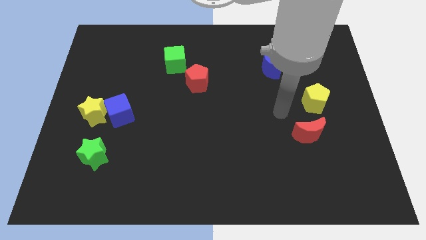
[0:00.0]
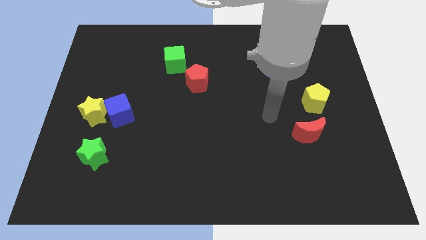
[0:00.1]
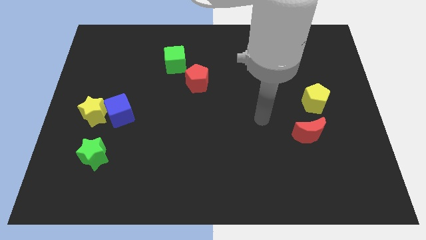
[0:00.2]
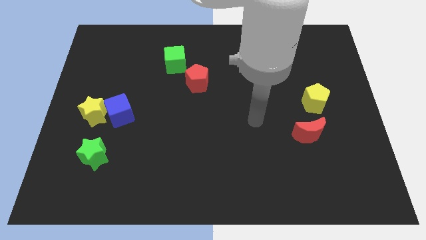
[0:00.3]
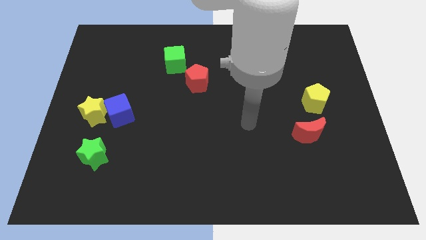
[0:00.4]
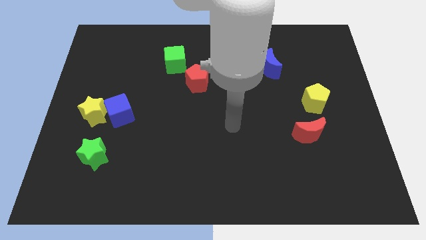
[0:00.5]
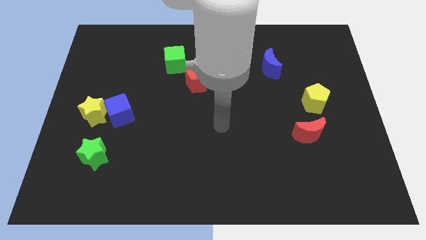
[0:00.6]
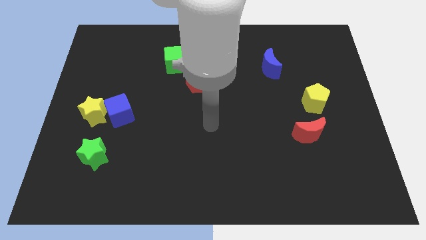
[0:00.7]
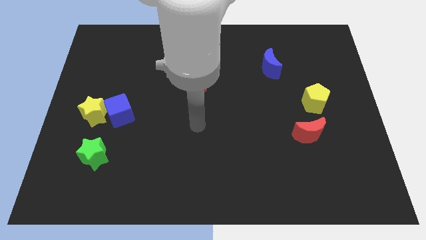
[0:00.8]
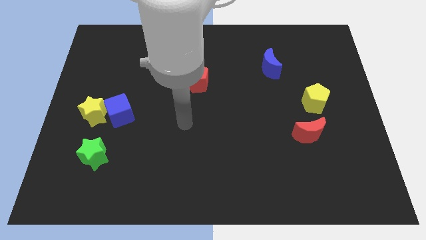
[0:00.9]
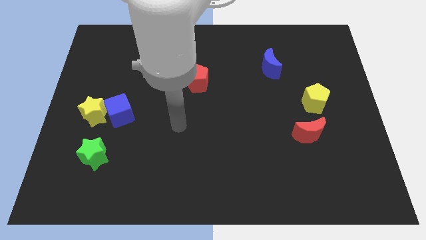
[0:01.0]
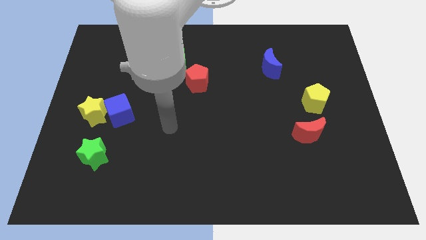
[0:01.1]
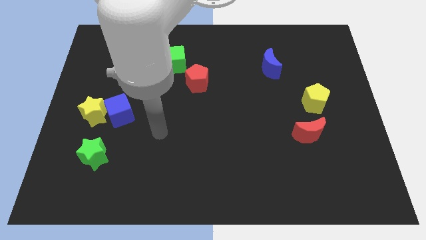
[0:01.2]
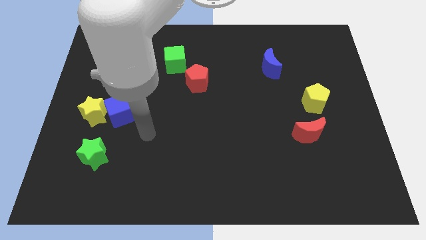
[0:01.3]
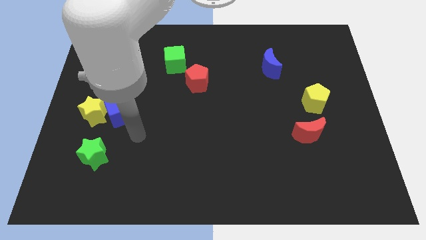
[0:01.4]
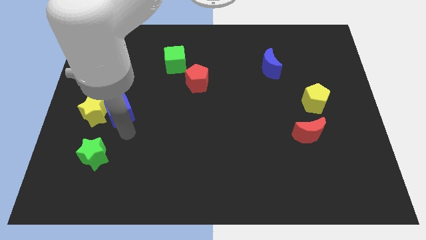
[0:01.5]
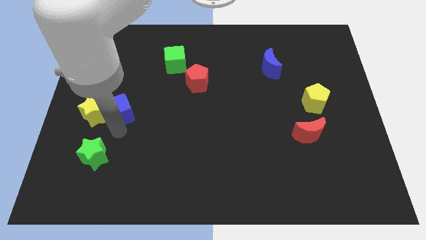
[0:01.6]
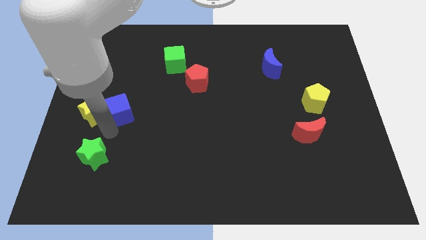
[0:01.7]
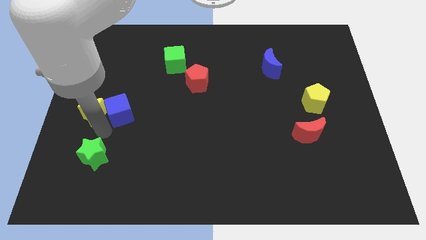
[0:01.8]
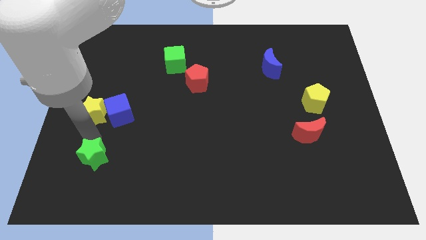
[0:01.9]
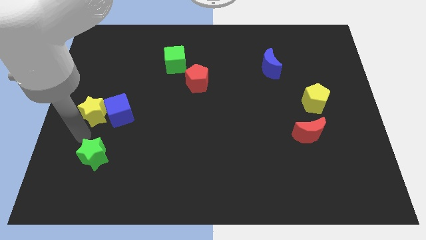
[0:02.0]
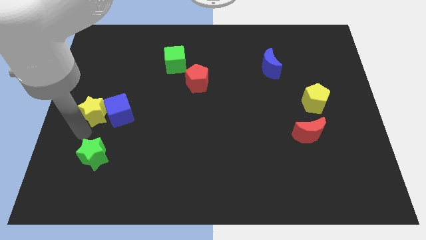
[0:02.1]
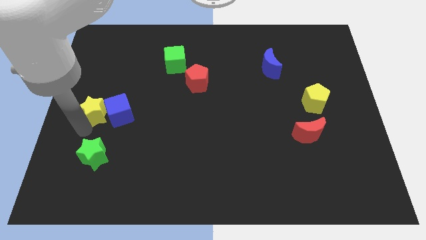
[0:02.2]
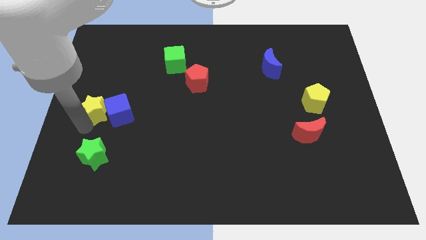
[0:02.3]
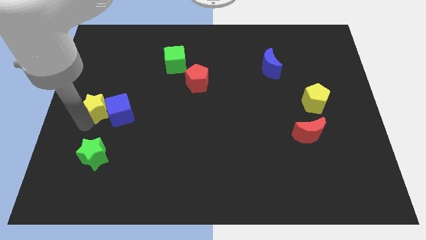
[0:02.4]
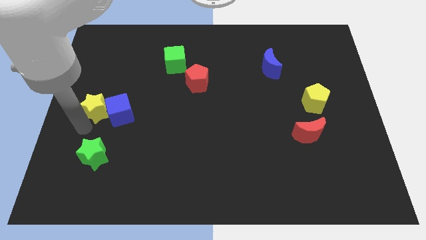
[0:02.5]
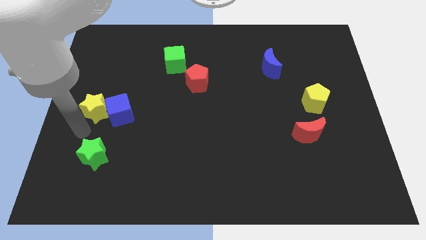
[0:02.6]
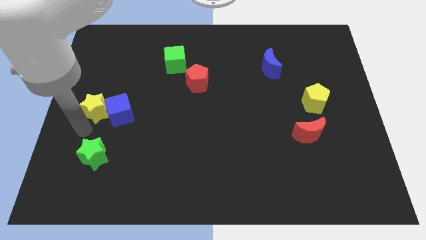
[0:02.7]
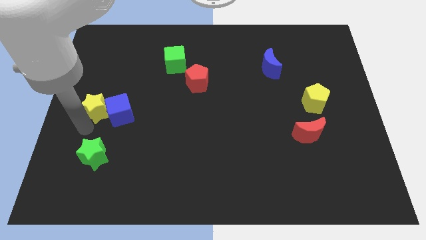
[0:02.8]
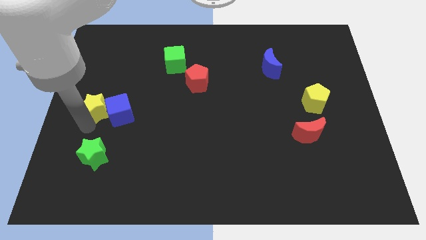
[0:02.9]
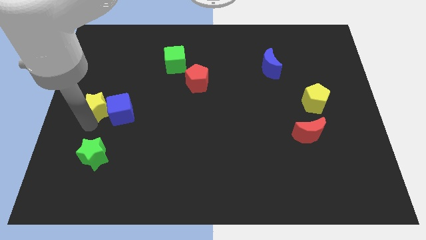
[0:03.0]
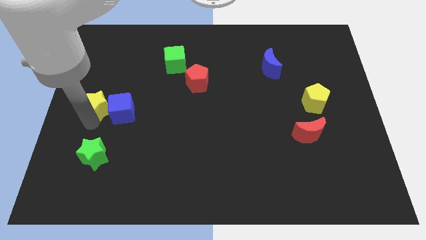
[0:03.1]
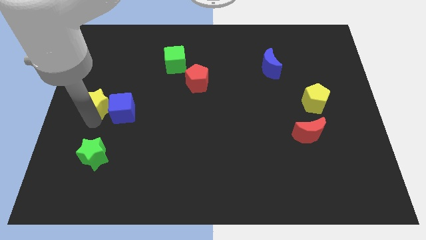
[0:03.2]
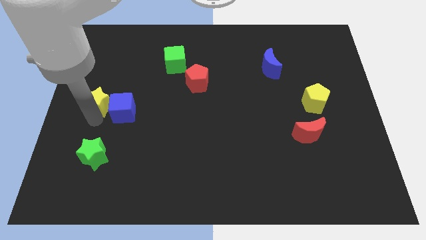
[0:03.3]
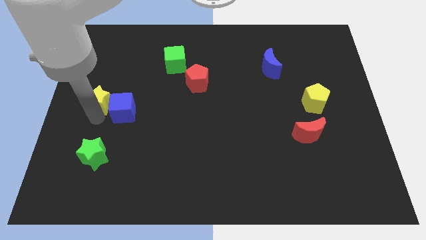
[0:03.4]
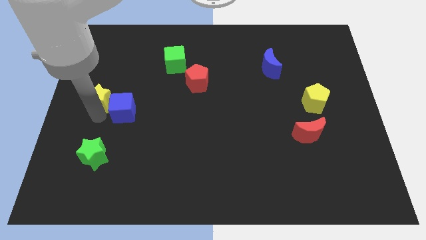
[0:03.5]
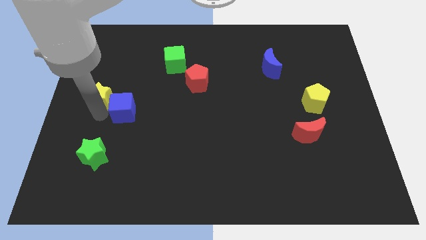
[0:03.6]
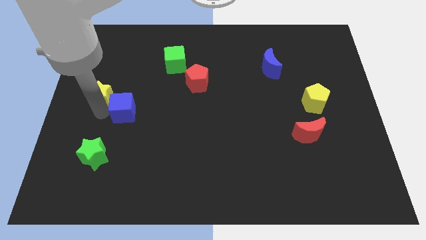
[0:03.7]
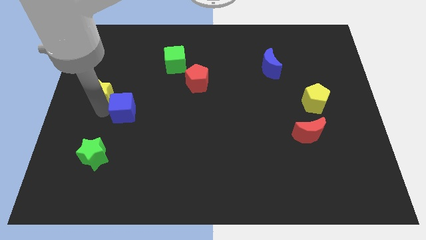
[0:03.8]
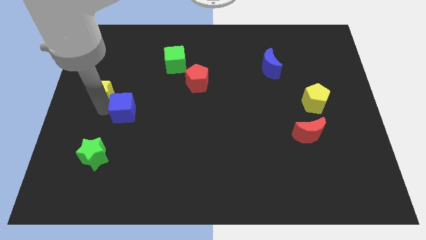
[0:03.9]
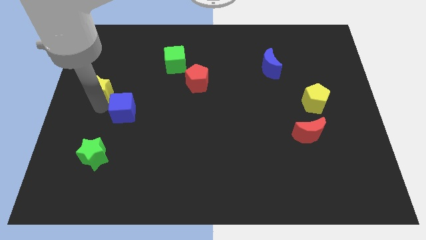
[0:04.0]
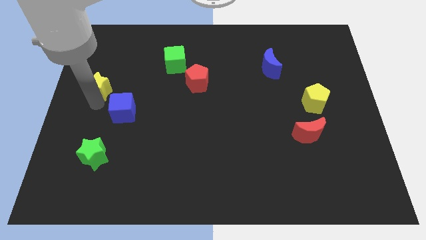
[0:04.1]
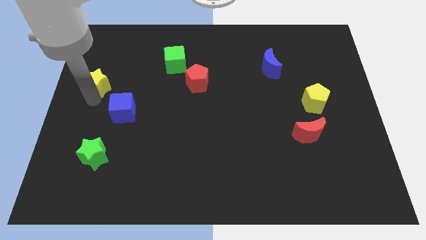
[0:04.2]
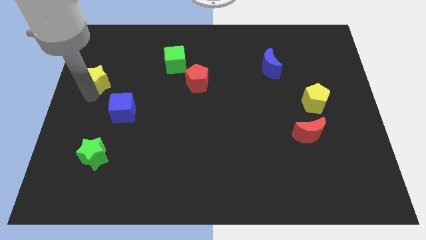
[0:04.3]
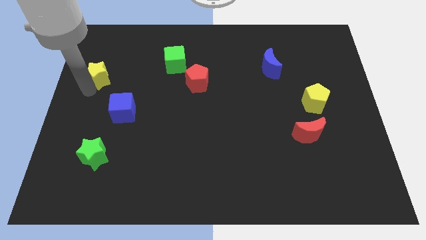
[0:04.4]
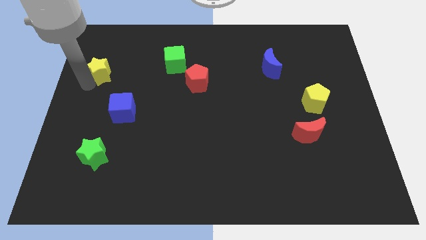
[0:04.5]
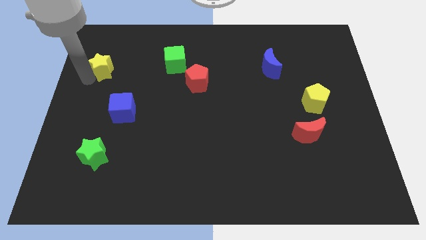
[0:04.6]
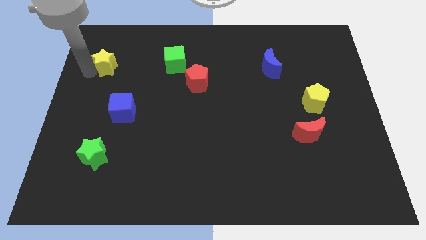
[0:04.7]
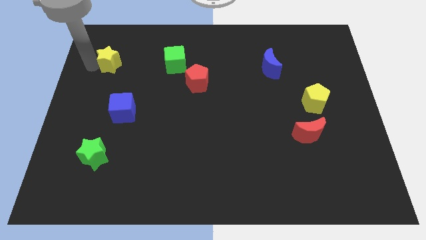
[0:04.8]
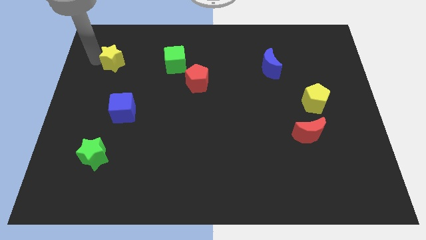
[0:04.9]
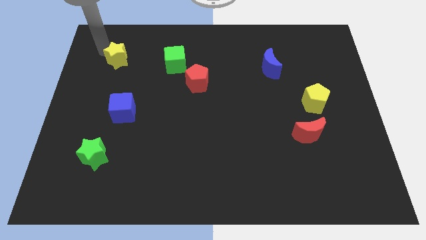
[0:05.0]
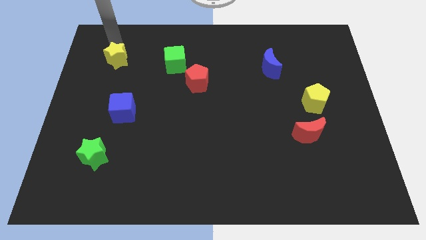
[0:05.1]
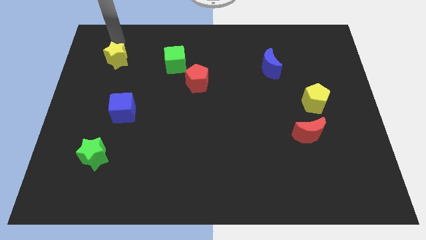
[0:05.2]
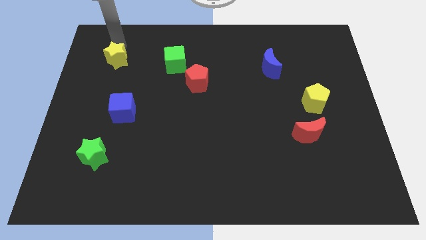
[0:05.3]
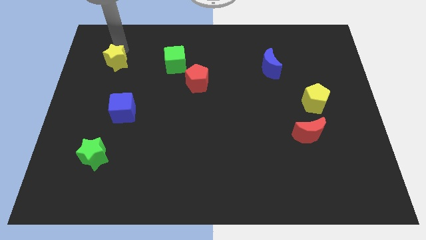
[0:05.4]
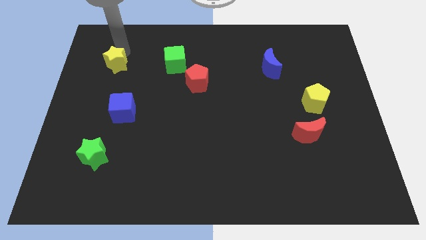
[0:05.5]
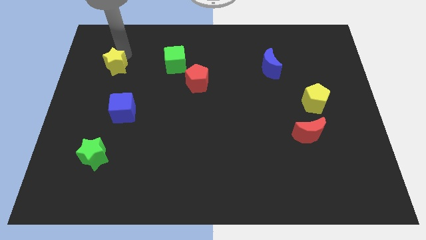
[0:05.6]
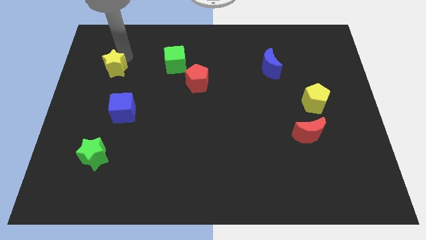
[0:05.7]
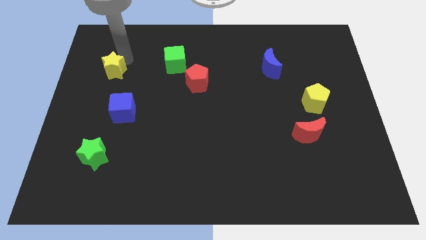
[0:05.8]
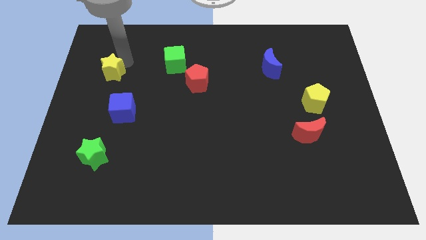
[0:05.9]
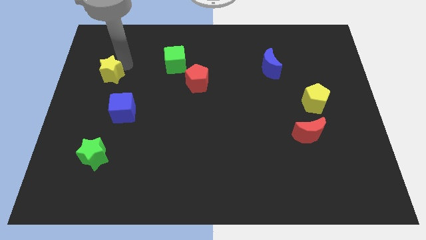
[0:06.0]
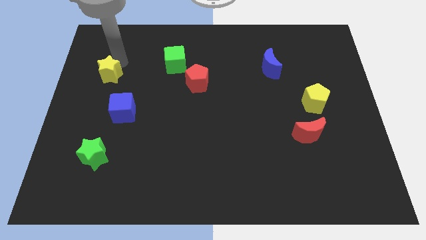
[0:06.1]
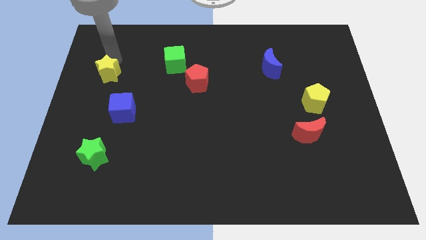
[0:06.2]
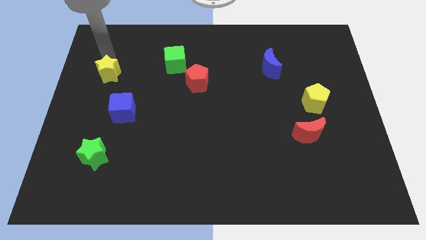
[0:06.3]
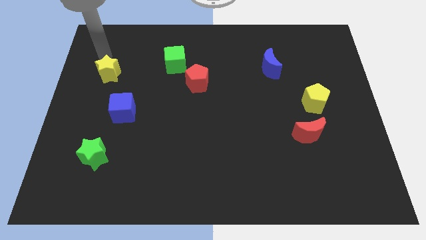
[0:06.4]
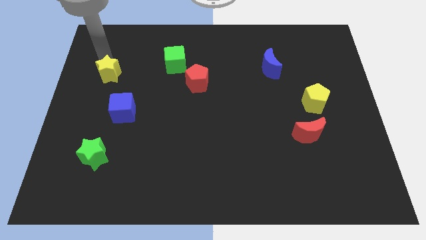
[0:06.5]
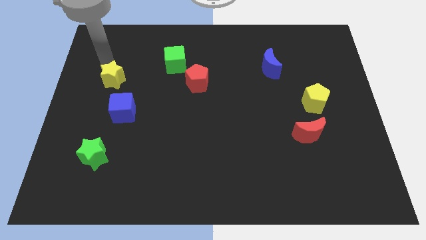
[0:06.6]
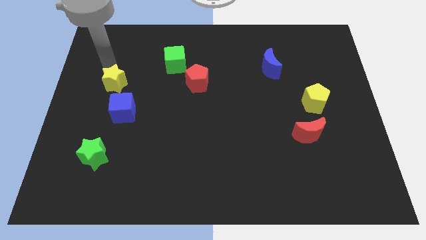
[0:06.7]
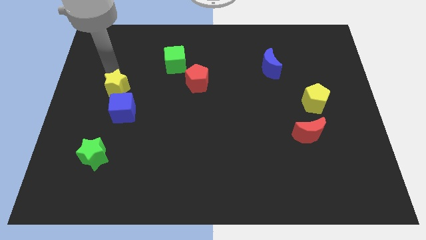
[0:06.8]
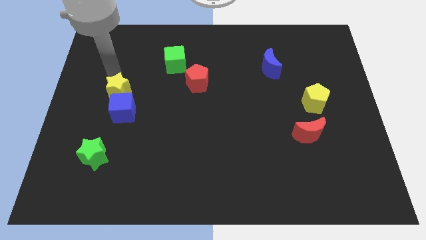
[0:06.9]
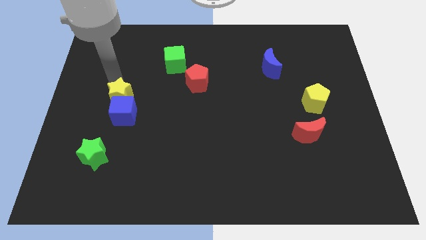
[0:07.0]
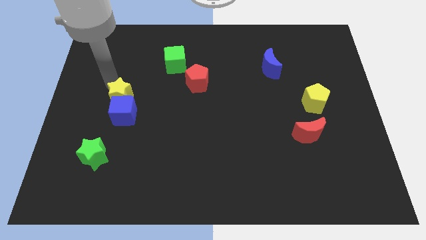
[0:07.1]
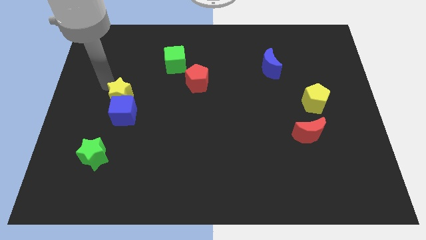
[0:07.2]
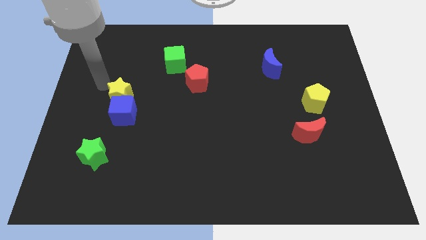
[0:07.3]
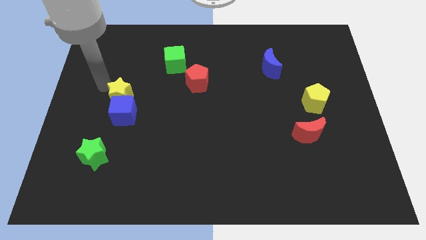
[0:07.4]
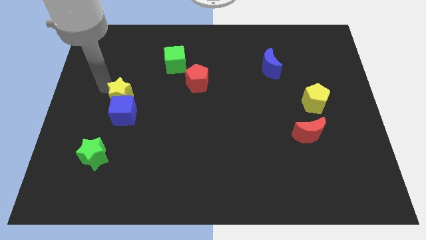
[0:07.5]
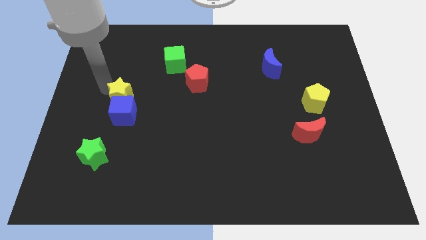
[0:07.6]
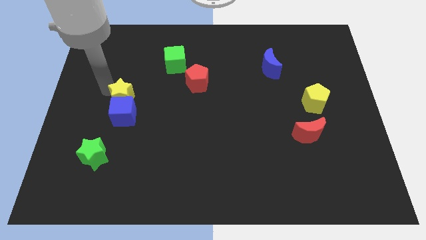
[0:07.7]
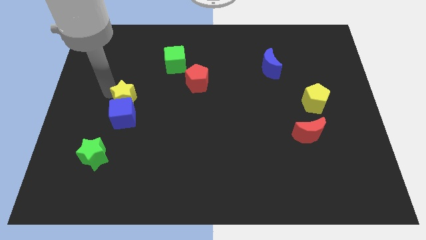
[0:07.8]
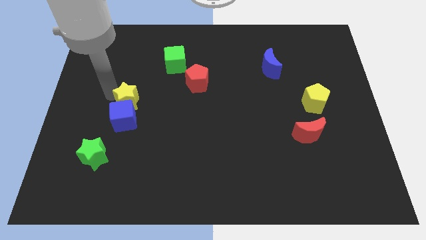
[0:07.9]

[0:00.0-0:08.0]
move the yellow star to the right somewhat

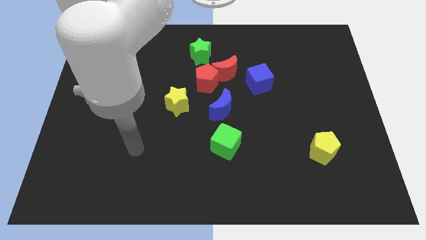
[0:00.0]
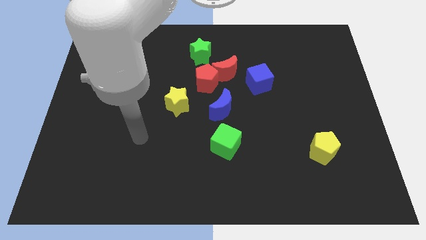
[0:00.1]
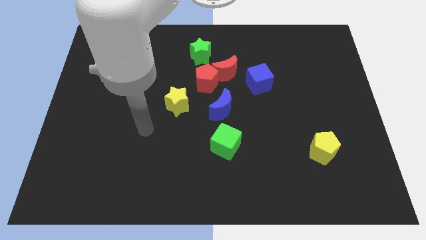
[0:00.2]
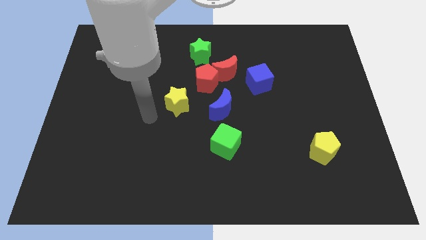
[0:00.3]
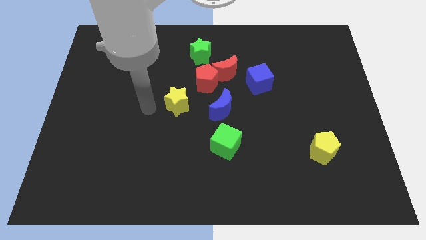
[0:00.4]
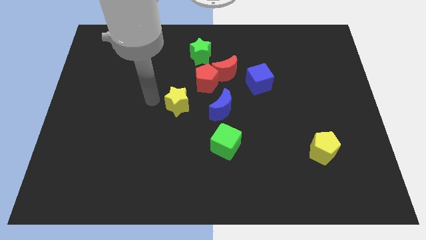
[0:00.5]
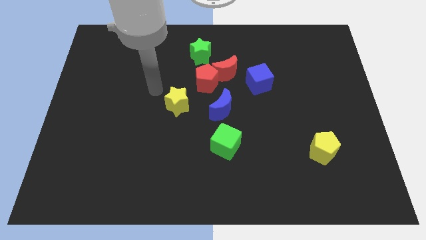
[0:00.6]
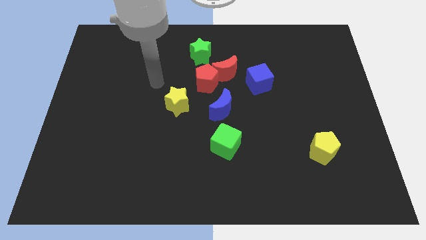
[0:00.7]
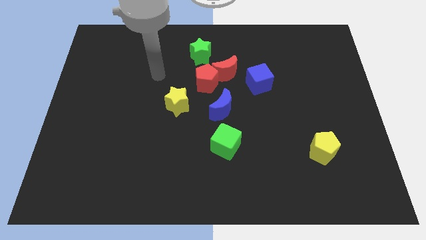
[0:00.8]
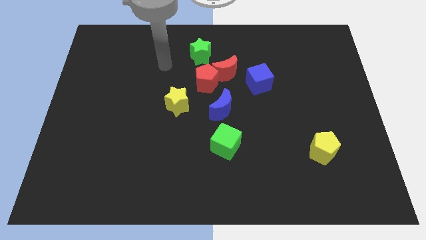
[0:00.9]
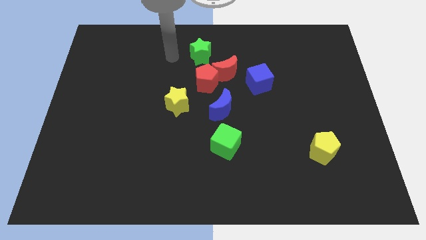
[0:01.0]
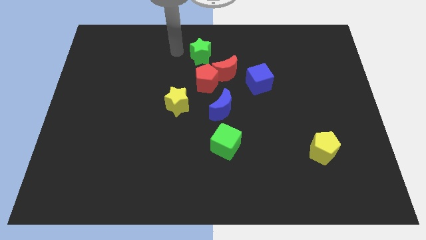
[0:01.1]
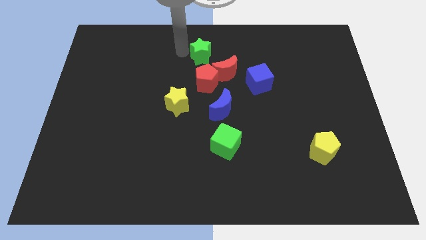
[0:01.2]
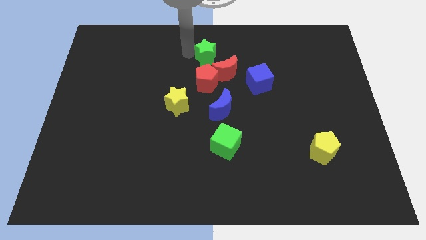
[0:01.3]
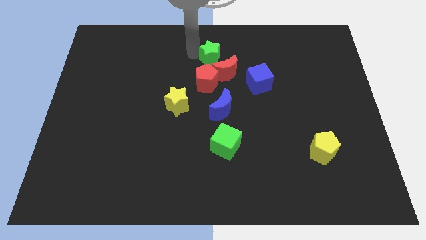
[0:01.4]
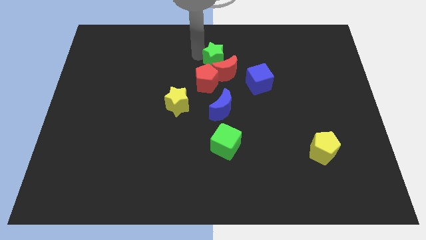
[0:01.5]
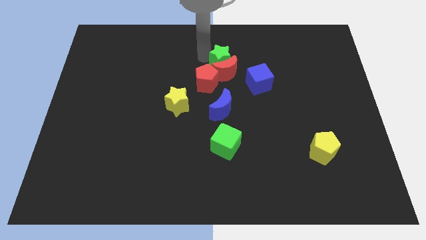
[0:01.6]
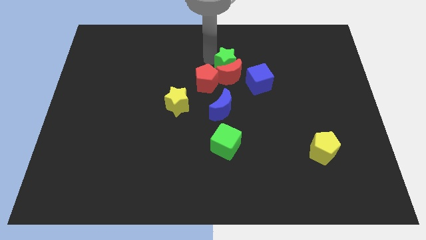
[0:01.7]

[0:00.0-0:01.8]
slide the green star a little bit down and right
